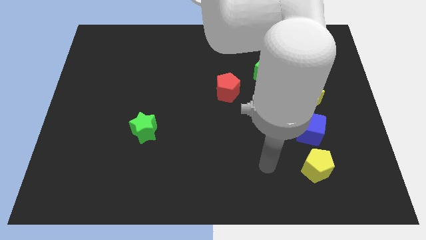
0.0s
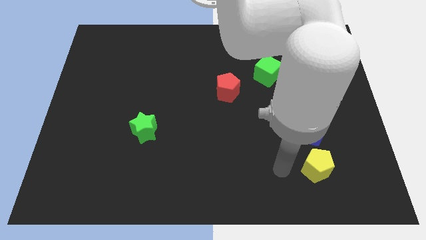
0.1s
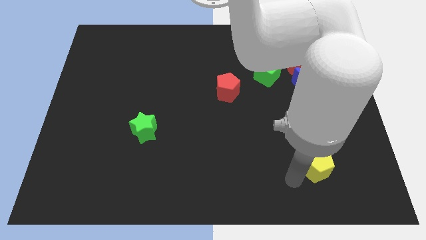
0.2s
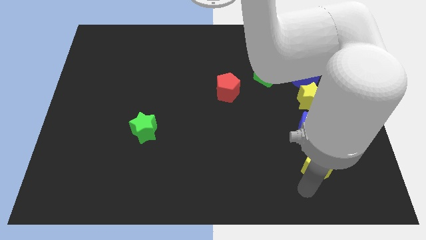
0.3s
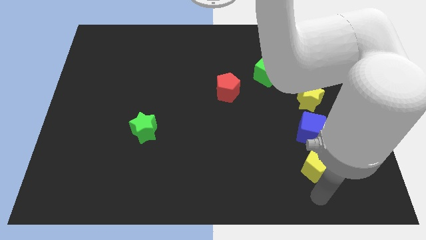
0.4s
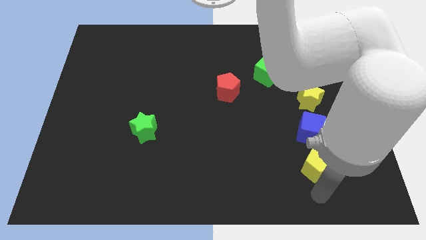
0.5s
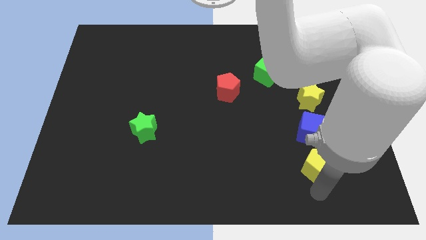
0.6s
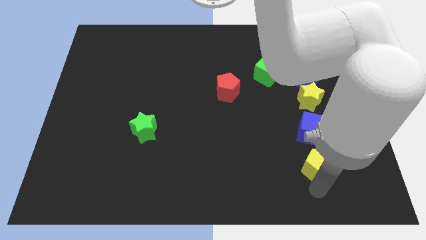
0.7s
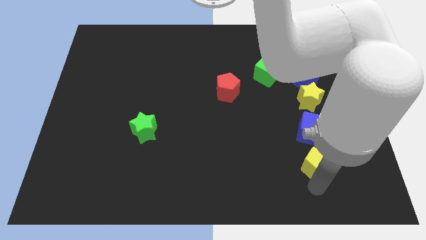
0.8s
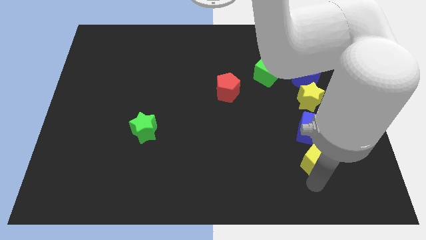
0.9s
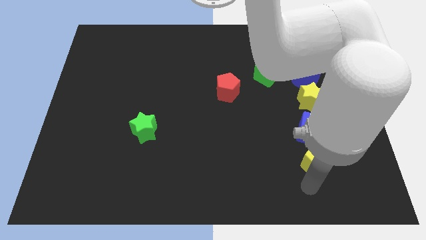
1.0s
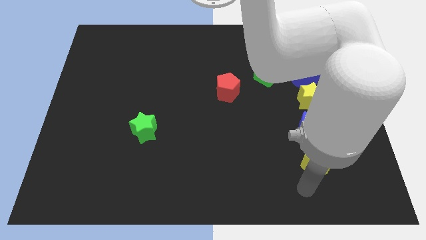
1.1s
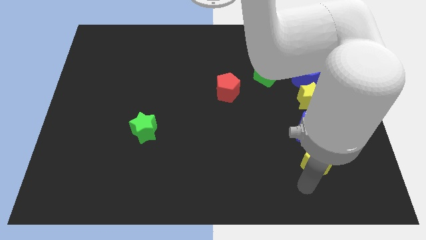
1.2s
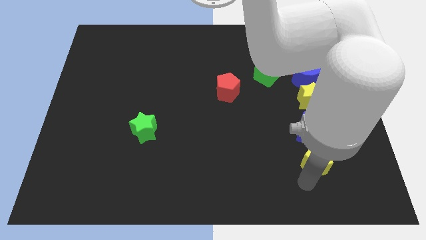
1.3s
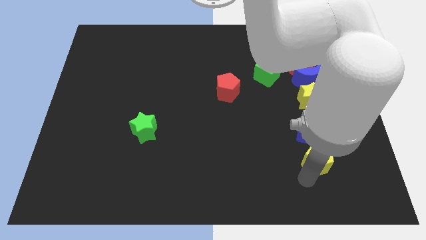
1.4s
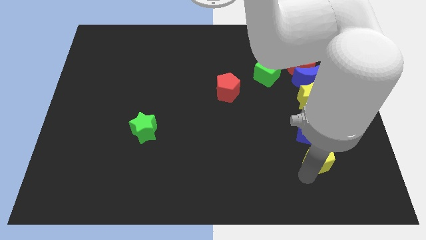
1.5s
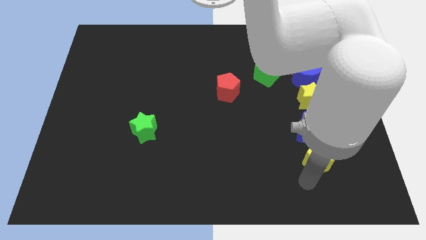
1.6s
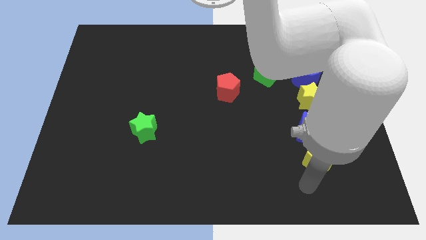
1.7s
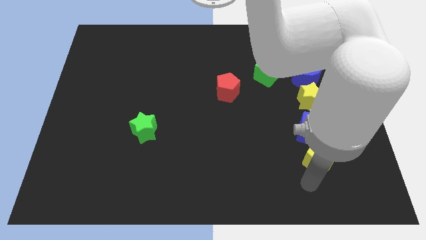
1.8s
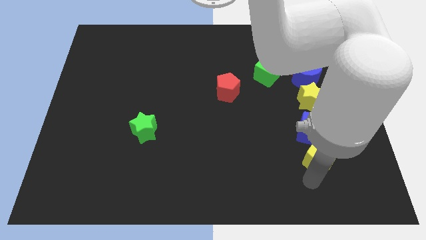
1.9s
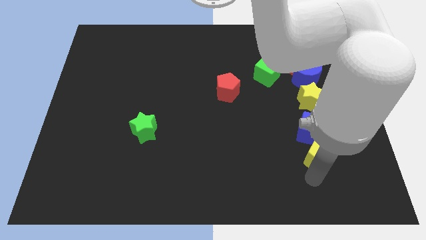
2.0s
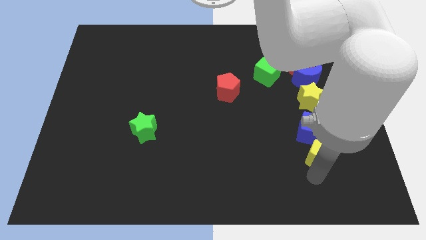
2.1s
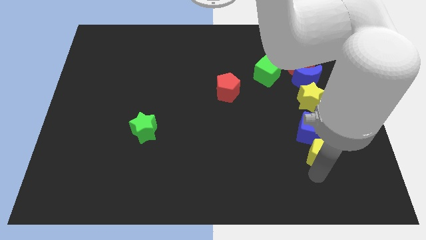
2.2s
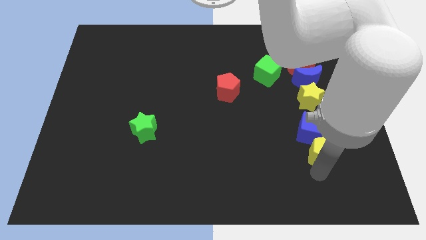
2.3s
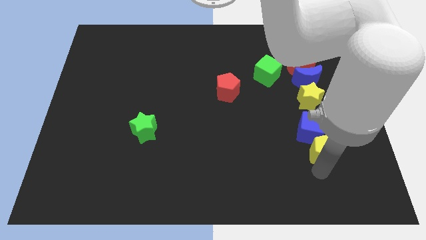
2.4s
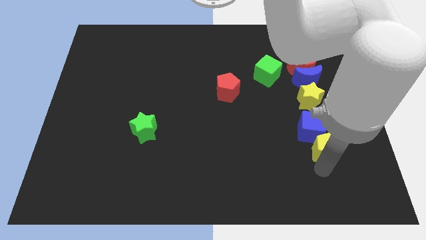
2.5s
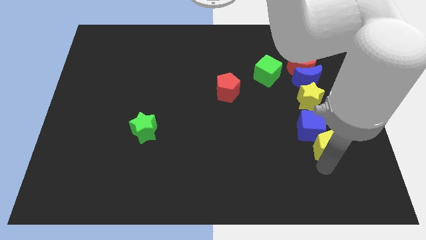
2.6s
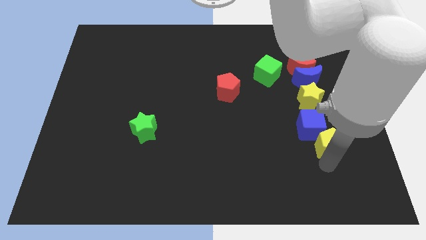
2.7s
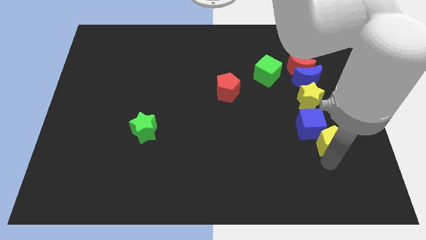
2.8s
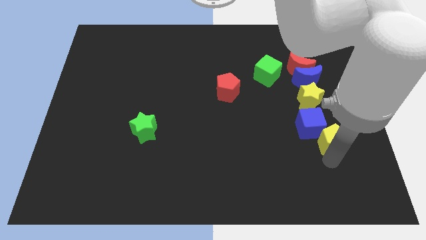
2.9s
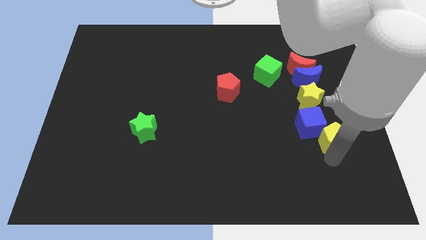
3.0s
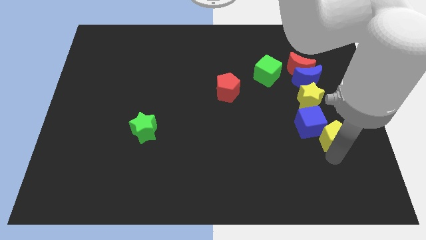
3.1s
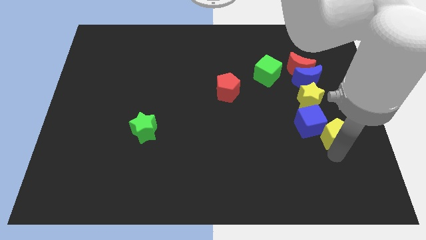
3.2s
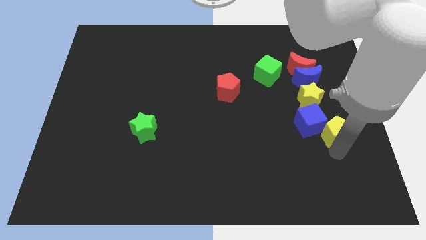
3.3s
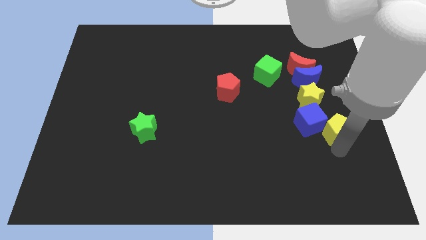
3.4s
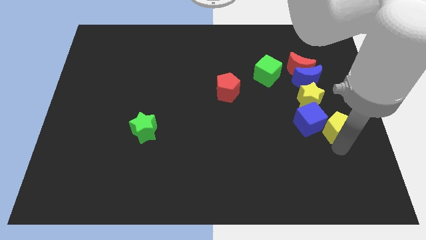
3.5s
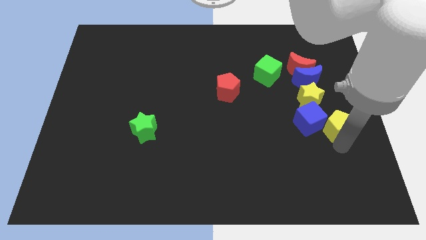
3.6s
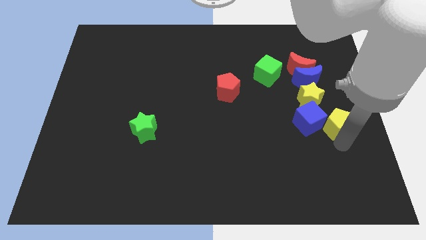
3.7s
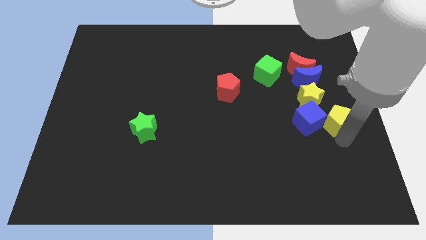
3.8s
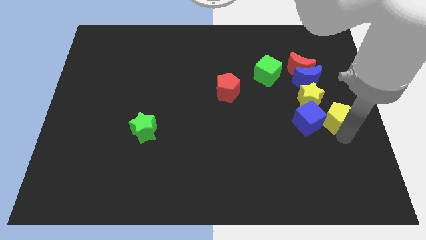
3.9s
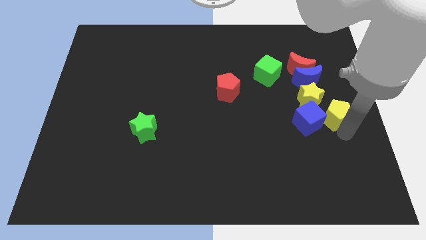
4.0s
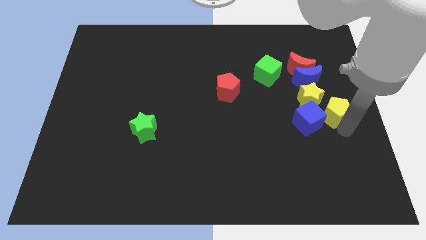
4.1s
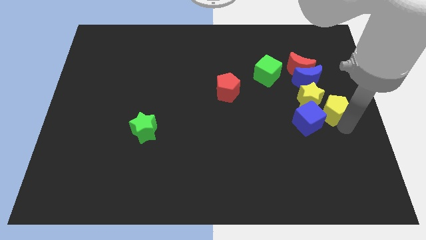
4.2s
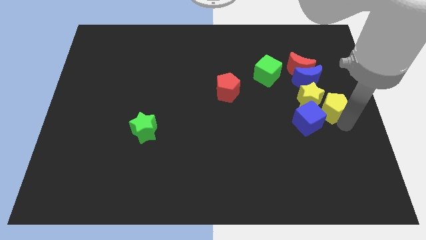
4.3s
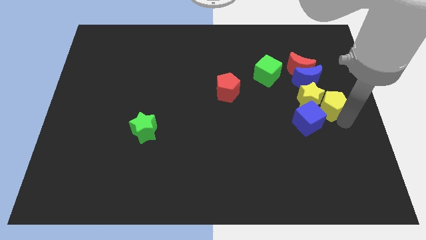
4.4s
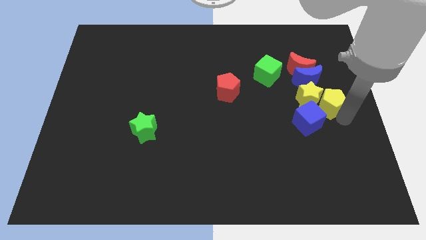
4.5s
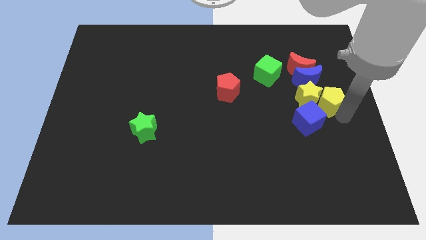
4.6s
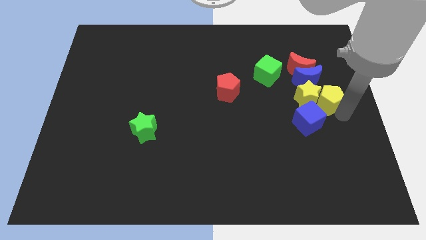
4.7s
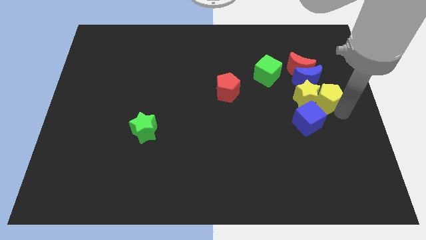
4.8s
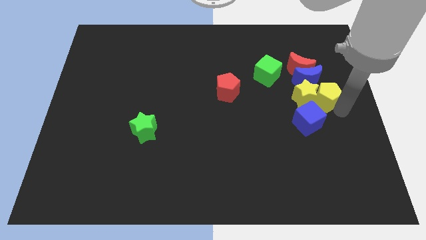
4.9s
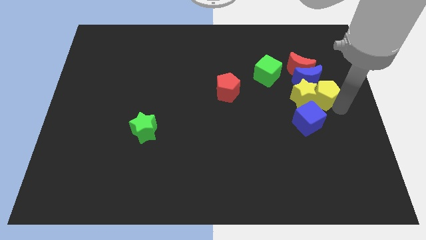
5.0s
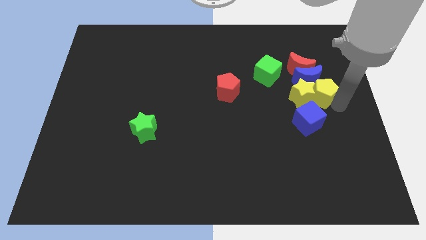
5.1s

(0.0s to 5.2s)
move the yellow pentagon close to the blue moon

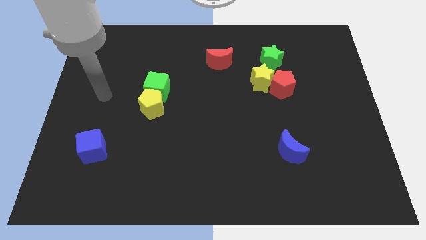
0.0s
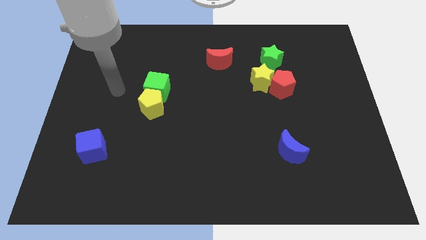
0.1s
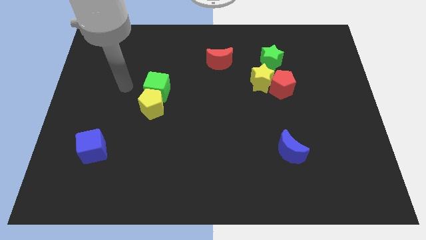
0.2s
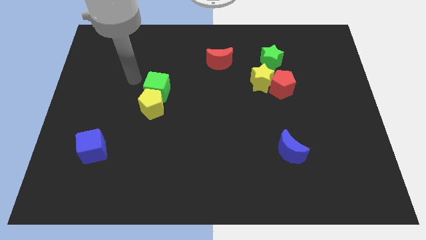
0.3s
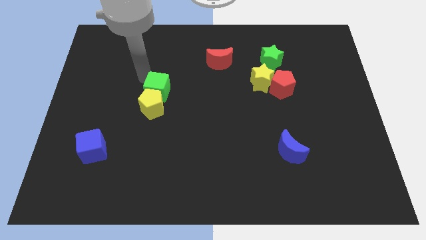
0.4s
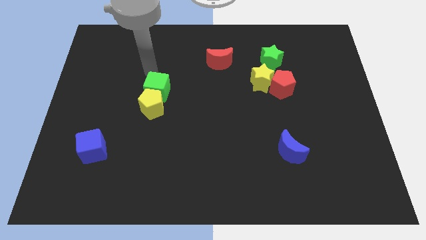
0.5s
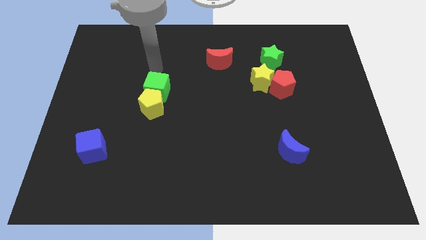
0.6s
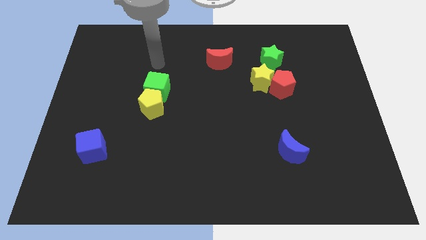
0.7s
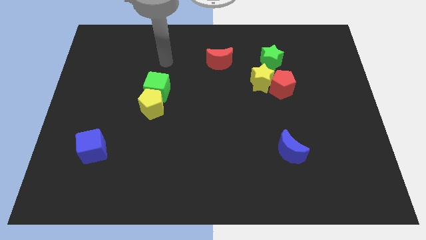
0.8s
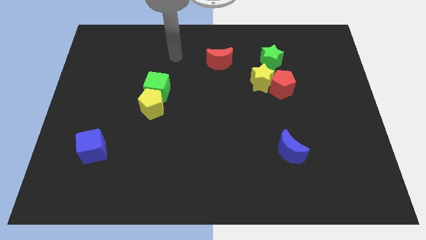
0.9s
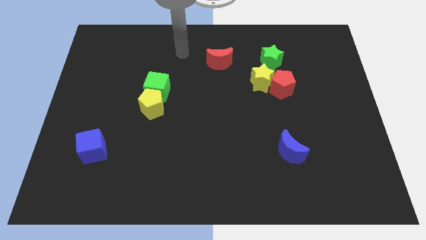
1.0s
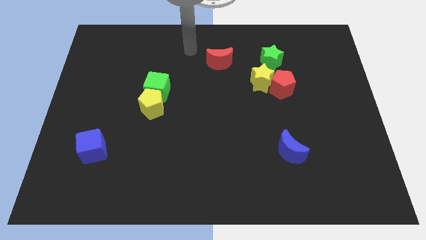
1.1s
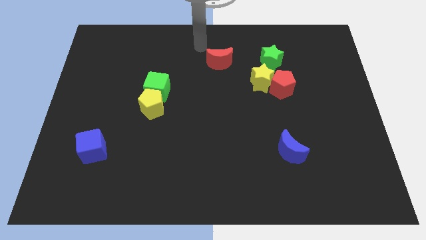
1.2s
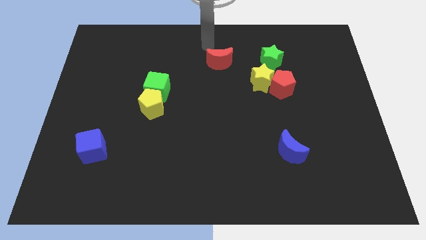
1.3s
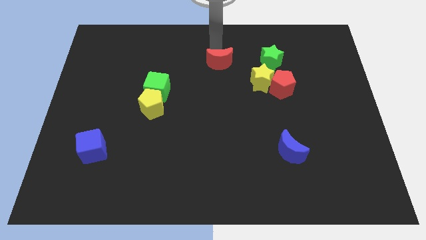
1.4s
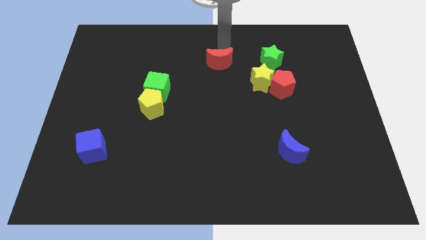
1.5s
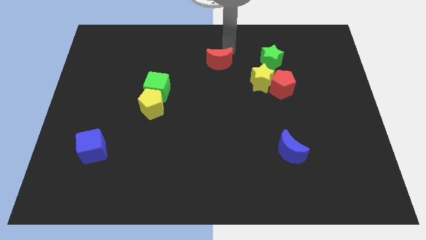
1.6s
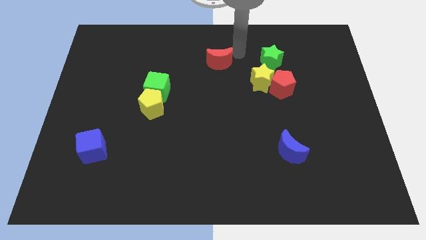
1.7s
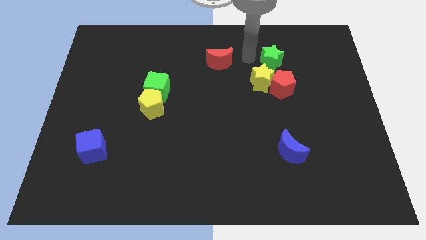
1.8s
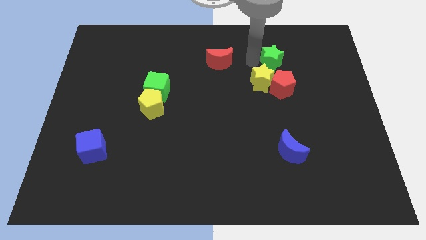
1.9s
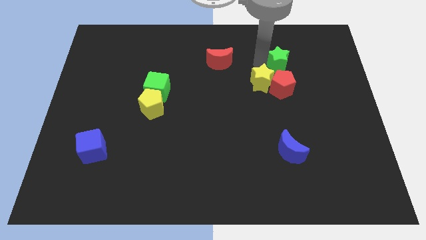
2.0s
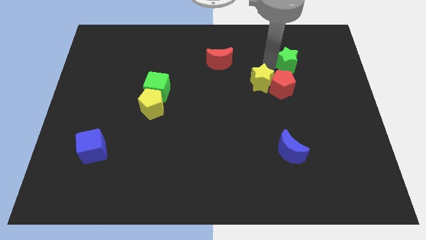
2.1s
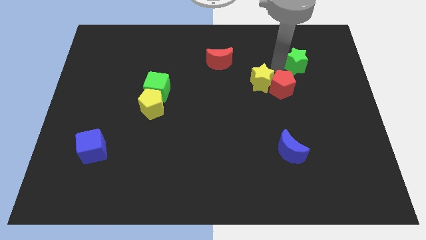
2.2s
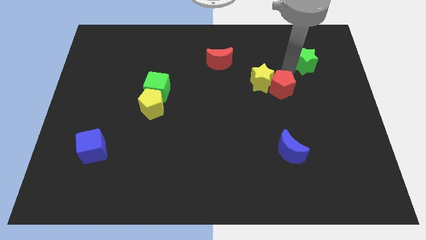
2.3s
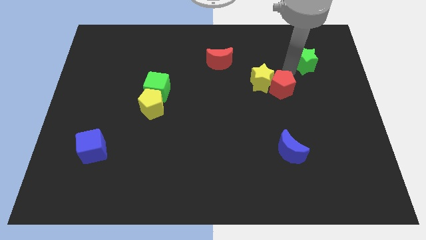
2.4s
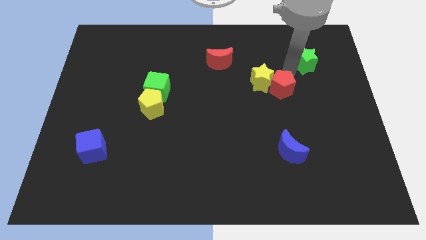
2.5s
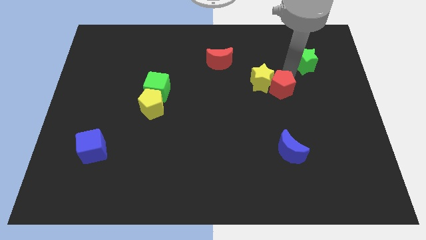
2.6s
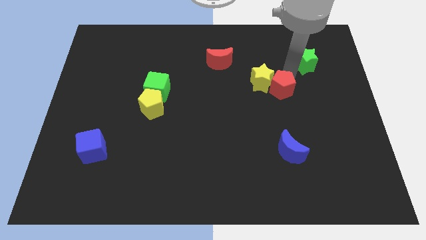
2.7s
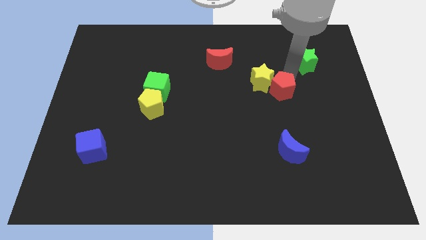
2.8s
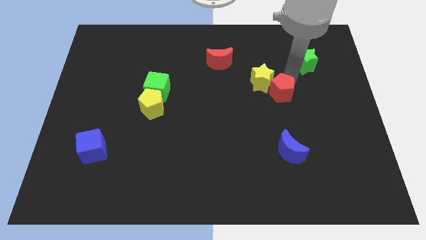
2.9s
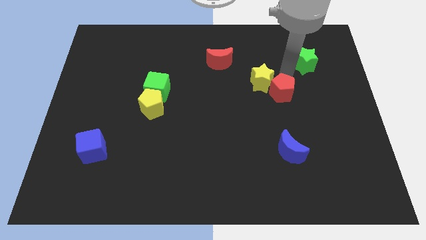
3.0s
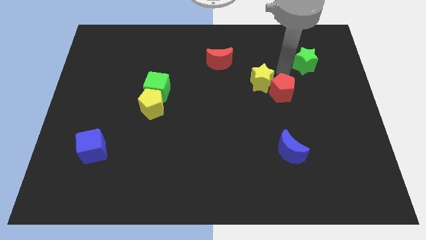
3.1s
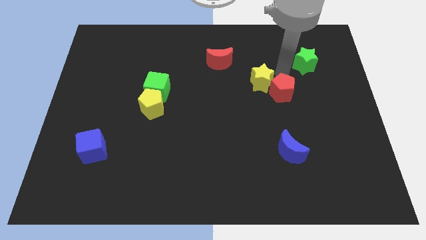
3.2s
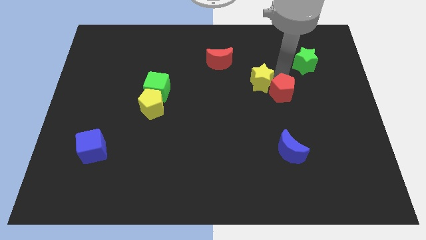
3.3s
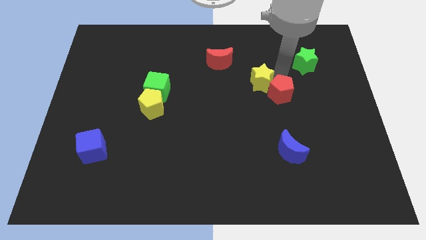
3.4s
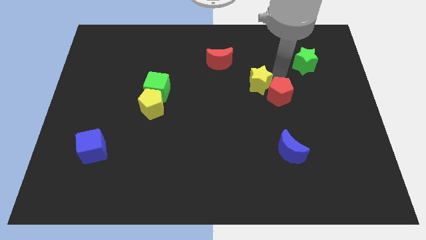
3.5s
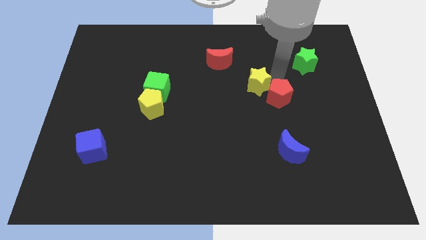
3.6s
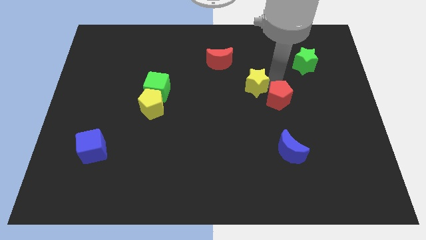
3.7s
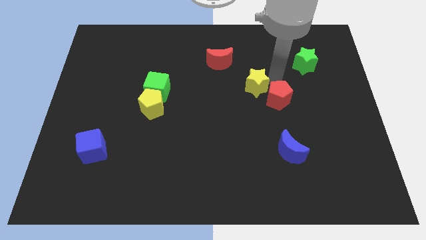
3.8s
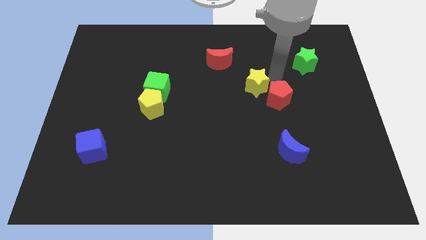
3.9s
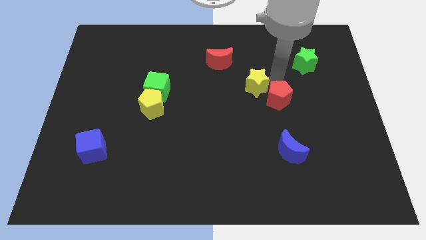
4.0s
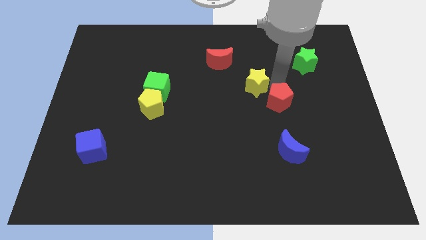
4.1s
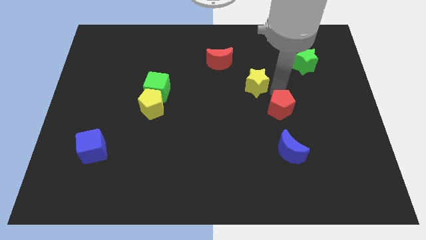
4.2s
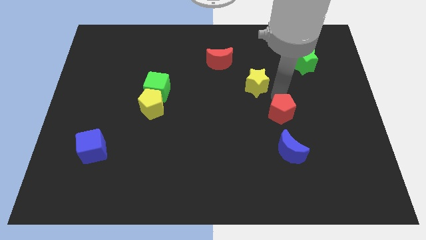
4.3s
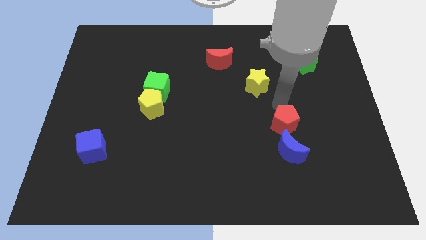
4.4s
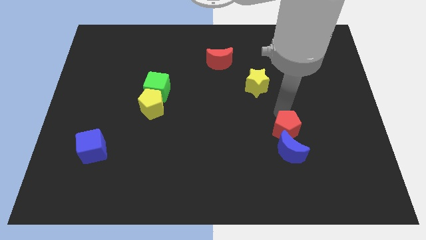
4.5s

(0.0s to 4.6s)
slide the red pentagon to the blue moon
